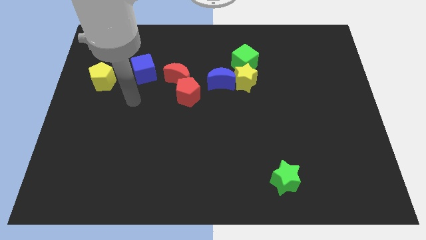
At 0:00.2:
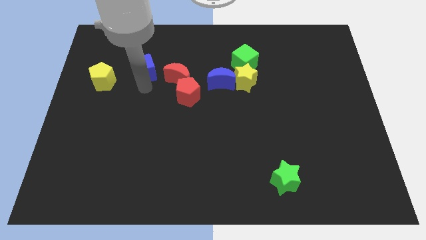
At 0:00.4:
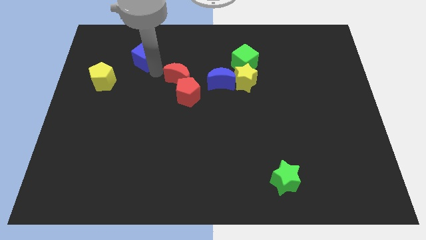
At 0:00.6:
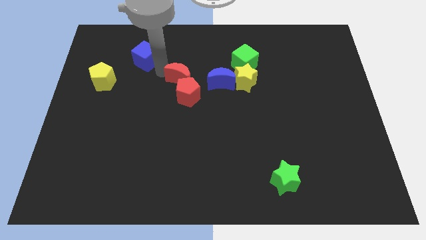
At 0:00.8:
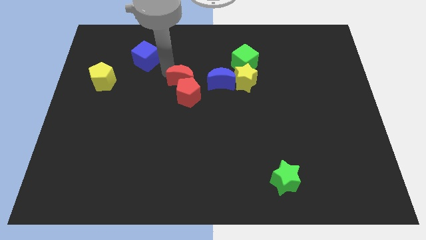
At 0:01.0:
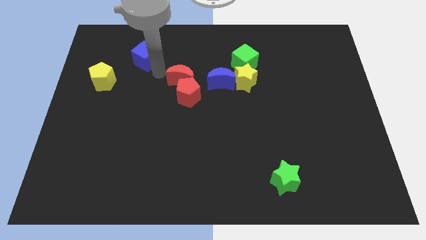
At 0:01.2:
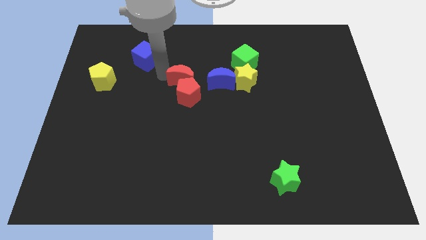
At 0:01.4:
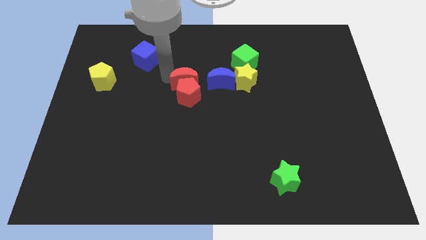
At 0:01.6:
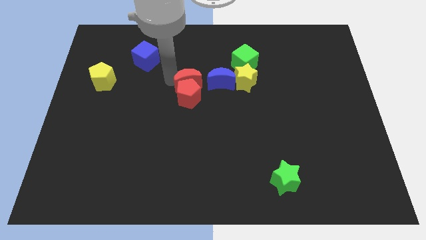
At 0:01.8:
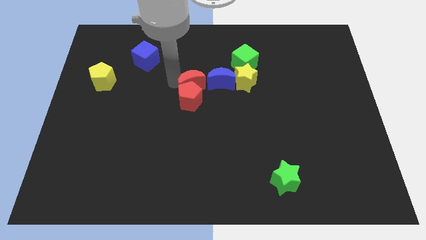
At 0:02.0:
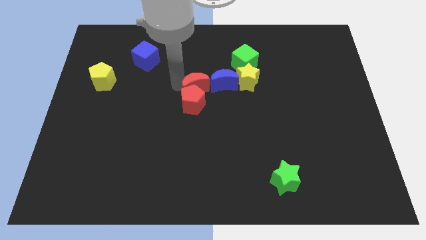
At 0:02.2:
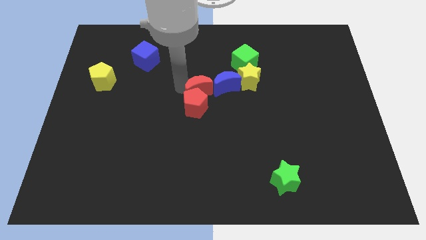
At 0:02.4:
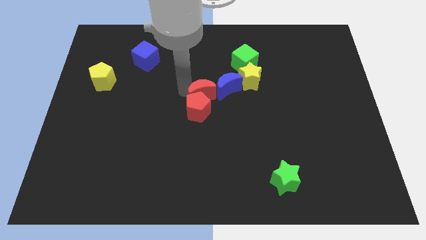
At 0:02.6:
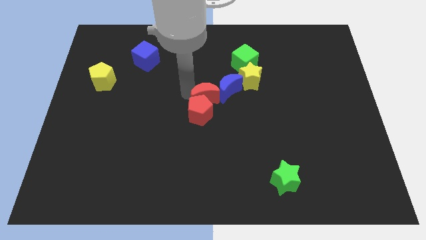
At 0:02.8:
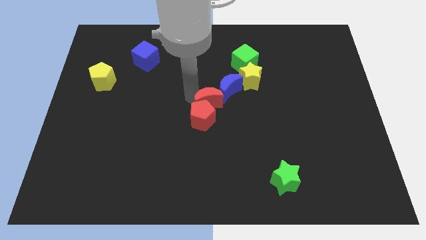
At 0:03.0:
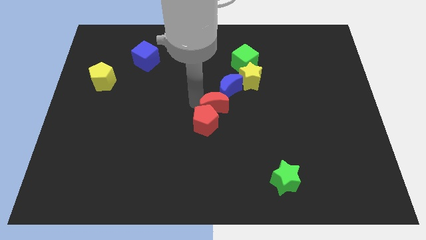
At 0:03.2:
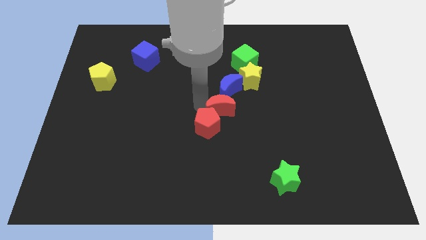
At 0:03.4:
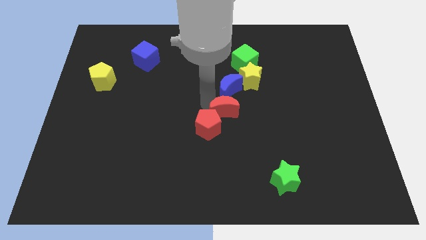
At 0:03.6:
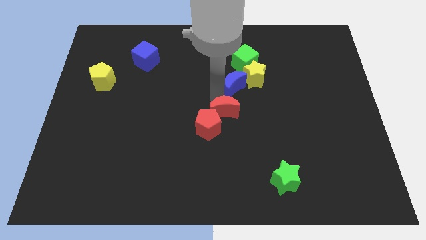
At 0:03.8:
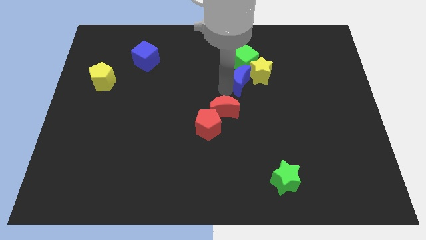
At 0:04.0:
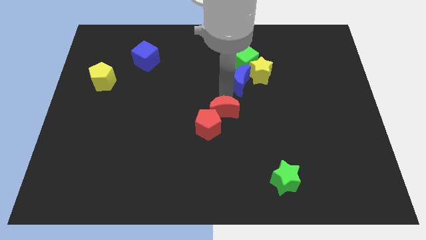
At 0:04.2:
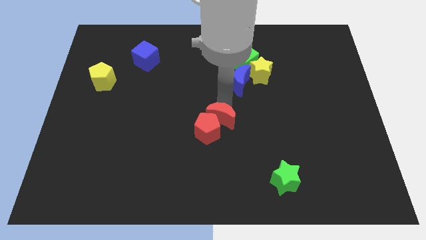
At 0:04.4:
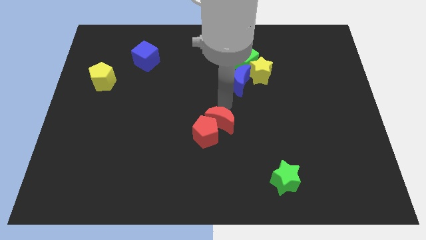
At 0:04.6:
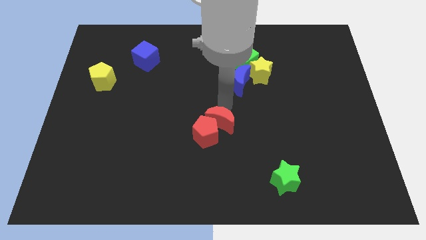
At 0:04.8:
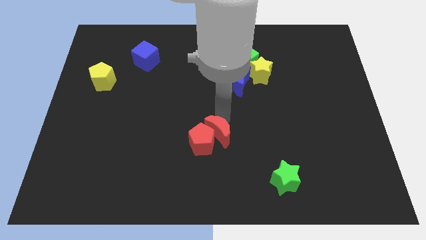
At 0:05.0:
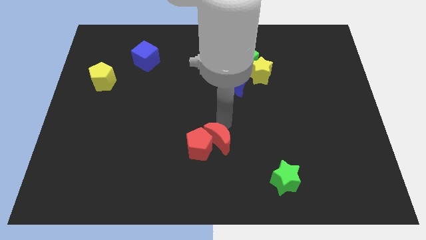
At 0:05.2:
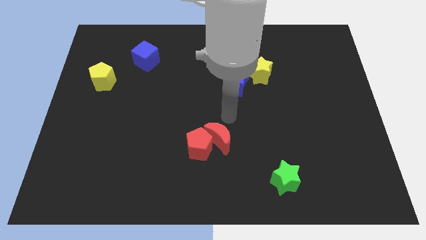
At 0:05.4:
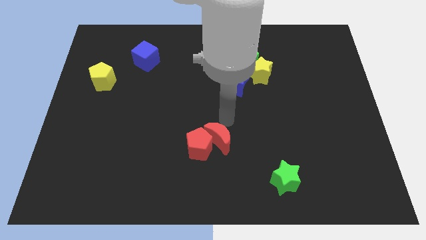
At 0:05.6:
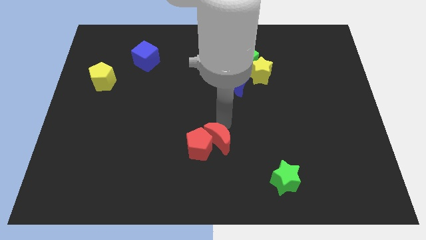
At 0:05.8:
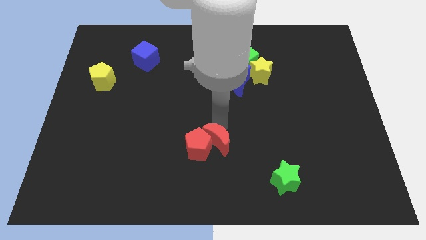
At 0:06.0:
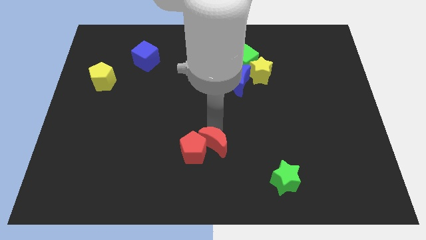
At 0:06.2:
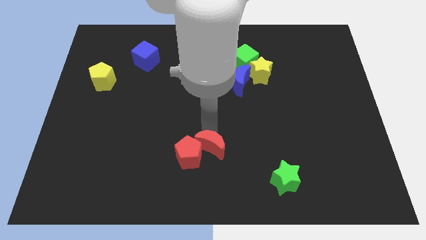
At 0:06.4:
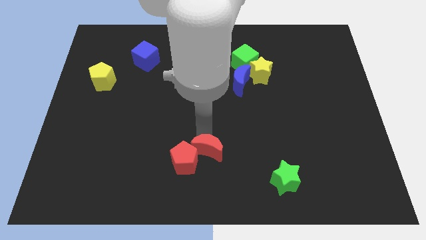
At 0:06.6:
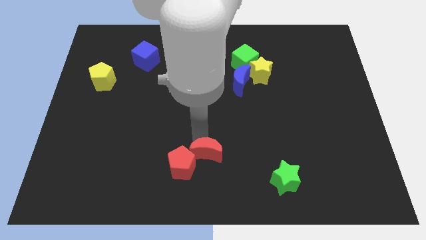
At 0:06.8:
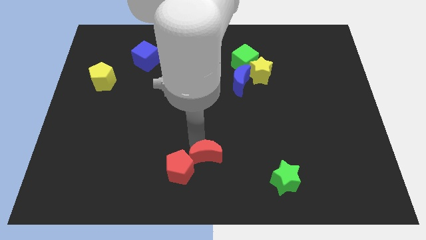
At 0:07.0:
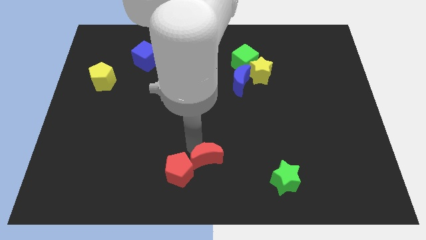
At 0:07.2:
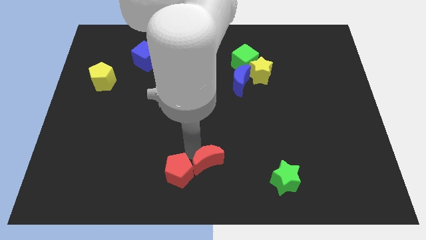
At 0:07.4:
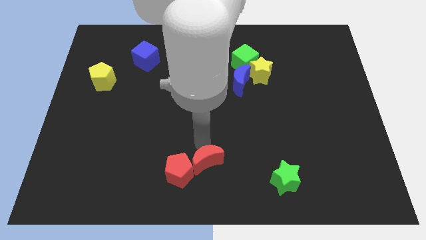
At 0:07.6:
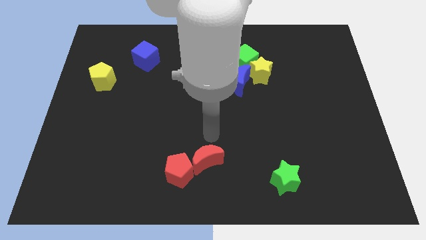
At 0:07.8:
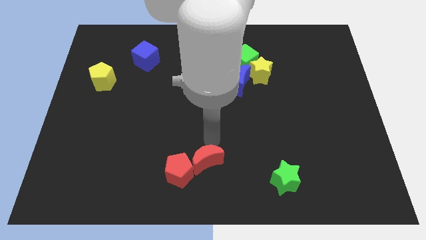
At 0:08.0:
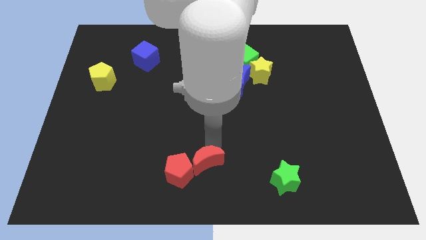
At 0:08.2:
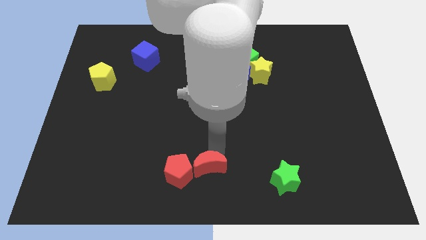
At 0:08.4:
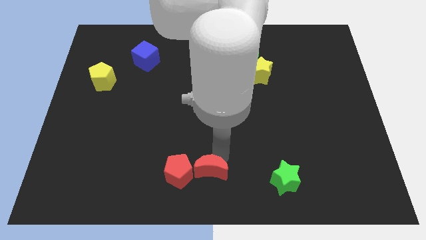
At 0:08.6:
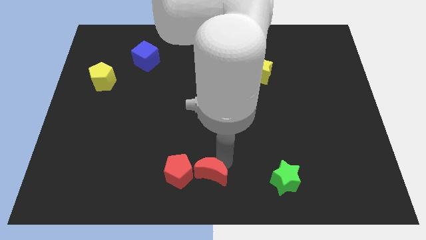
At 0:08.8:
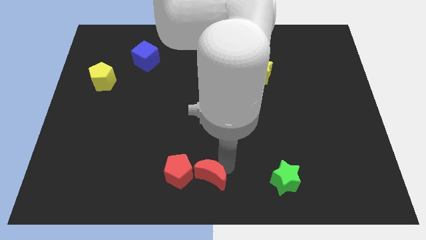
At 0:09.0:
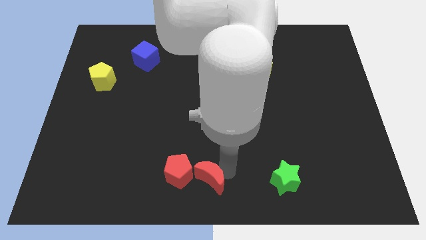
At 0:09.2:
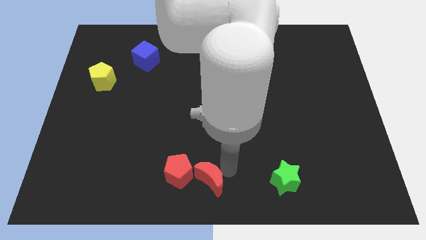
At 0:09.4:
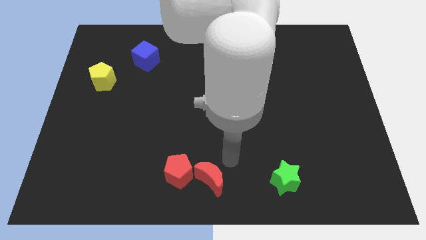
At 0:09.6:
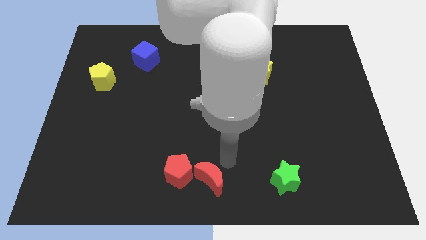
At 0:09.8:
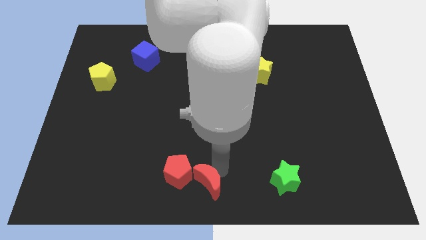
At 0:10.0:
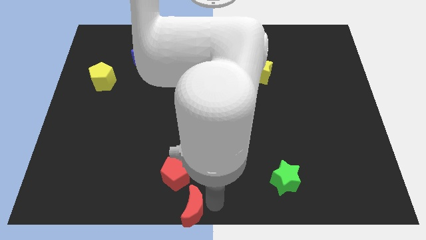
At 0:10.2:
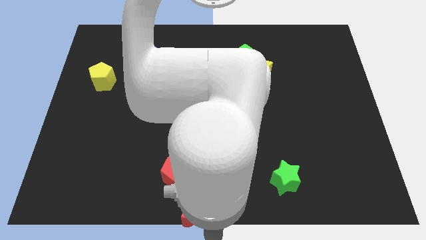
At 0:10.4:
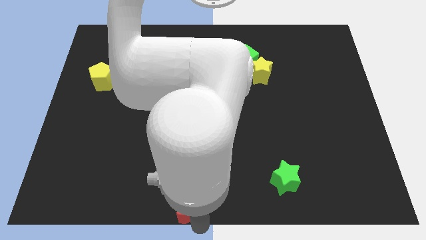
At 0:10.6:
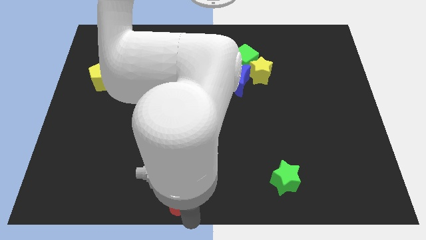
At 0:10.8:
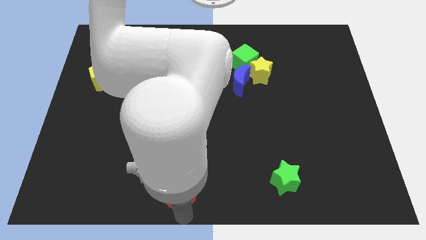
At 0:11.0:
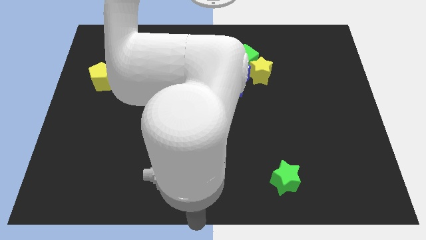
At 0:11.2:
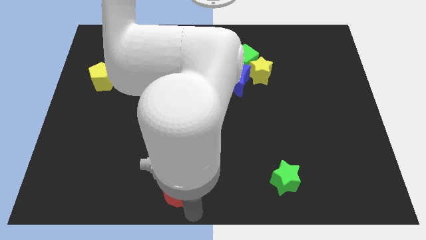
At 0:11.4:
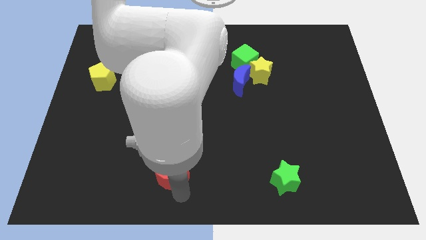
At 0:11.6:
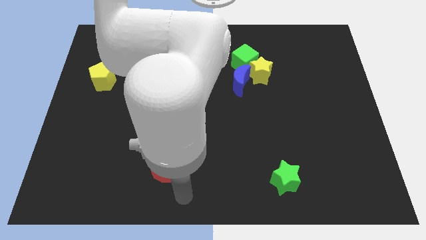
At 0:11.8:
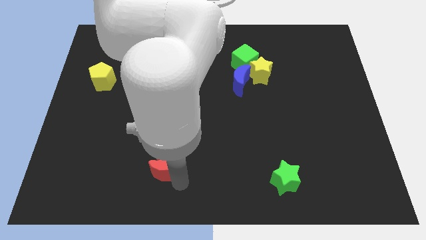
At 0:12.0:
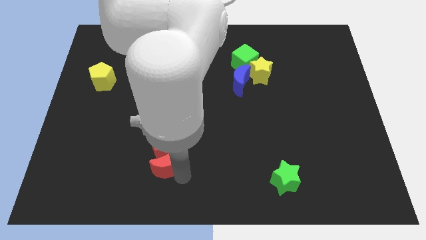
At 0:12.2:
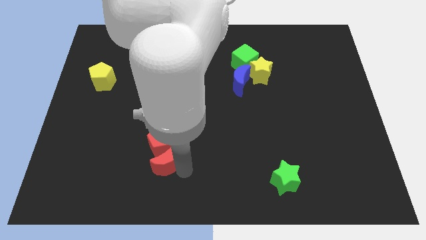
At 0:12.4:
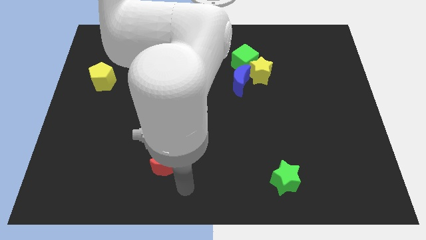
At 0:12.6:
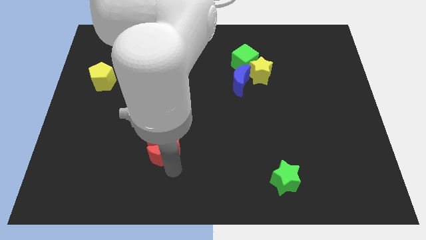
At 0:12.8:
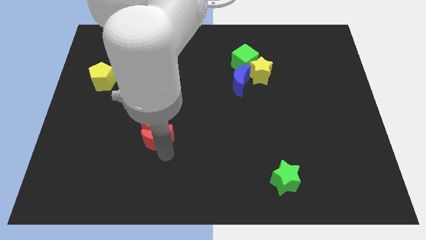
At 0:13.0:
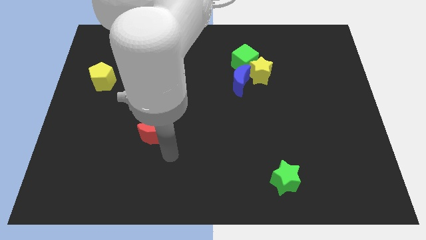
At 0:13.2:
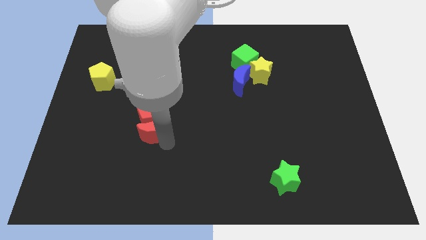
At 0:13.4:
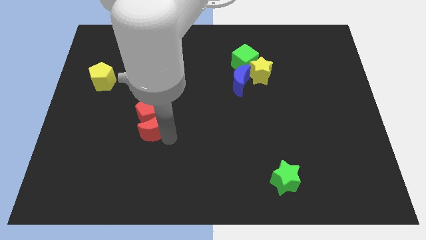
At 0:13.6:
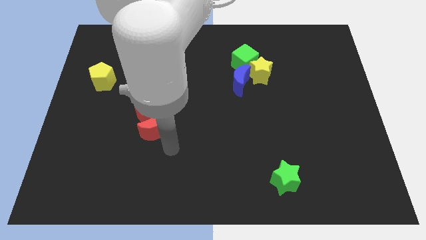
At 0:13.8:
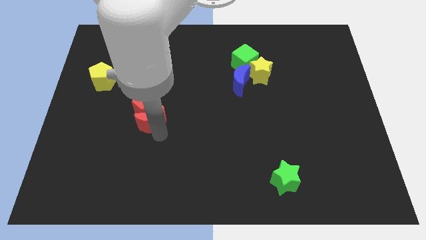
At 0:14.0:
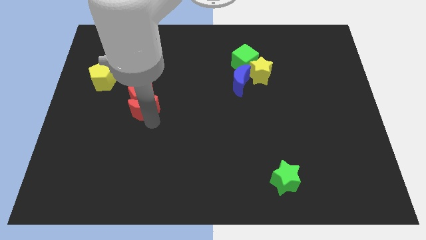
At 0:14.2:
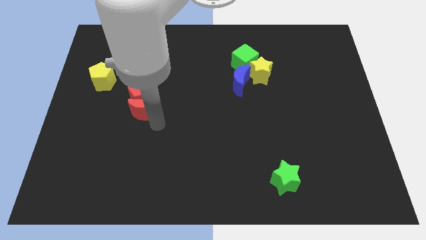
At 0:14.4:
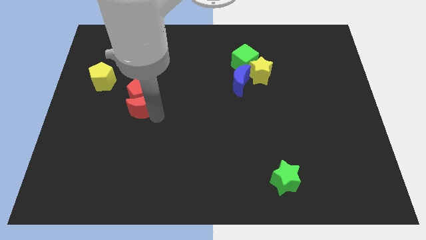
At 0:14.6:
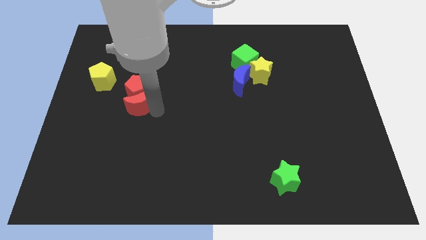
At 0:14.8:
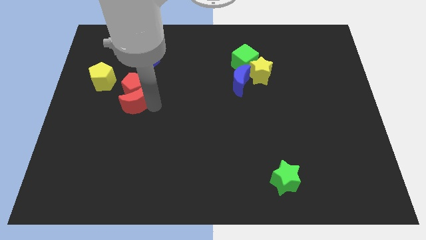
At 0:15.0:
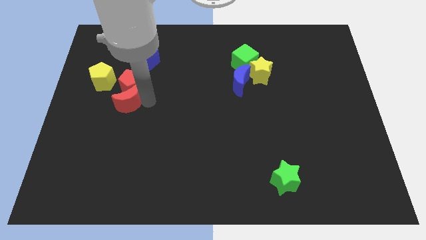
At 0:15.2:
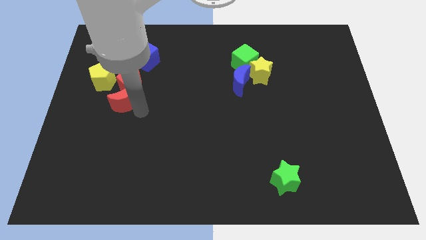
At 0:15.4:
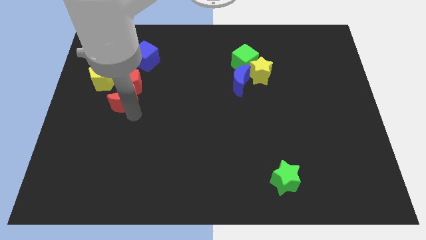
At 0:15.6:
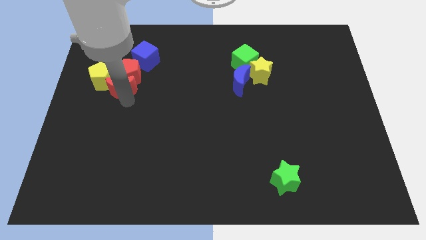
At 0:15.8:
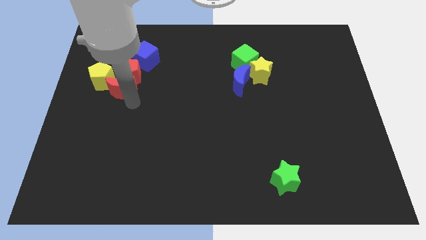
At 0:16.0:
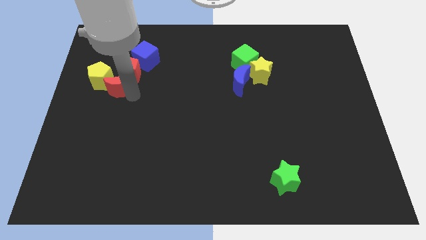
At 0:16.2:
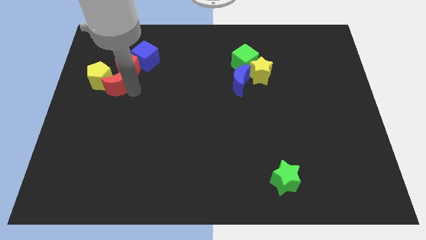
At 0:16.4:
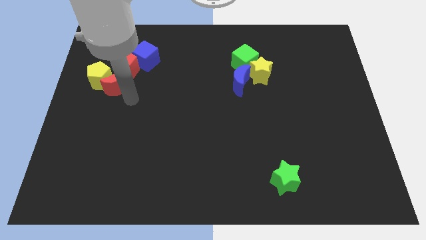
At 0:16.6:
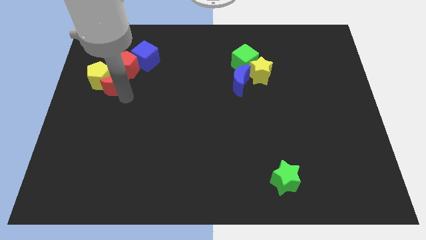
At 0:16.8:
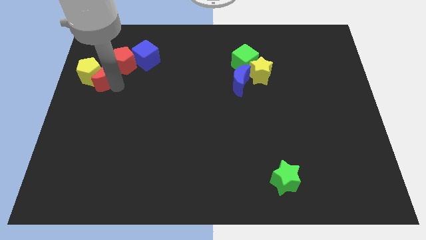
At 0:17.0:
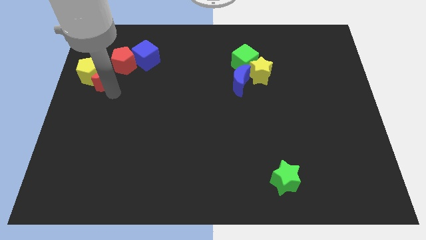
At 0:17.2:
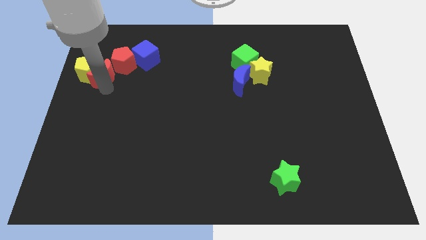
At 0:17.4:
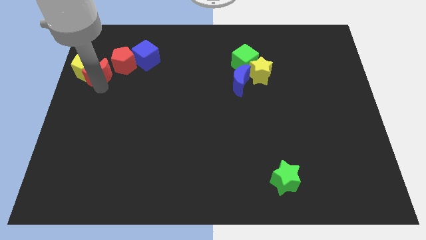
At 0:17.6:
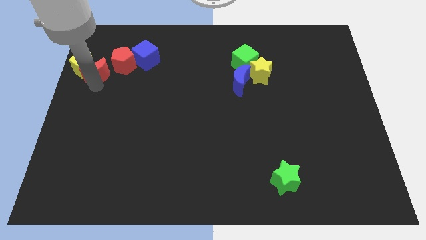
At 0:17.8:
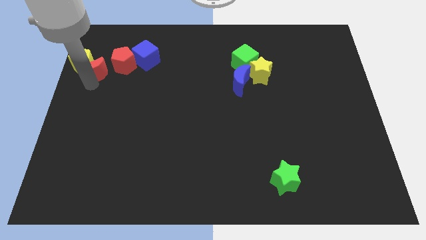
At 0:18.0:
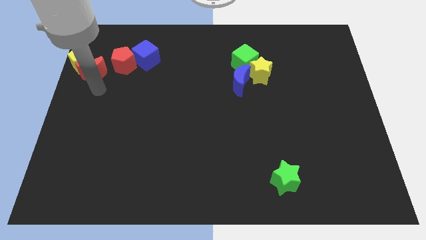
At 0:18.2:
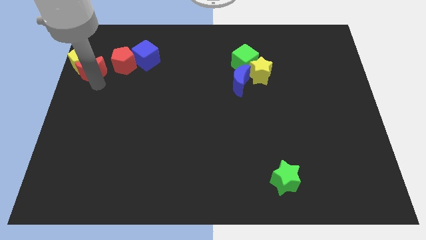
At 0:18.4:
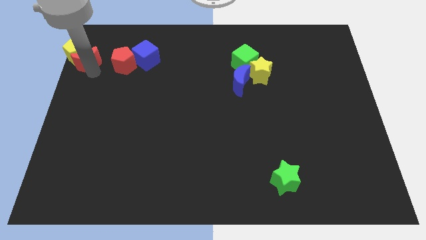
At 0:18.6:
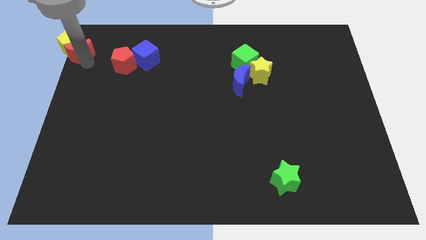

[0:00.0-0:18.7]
slide the red moon to the upper left corner
